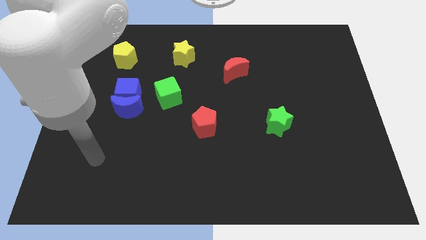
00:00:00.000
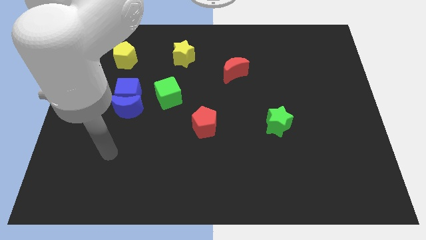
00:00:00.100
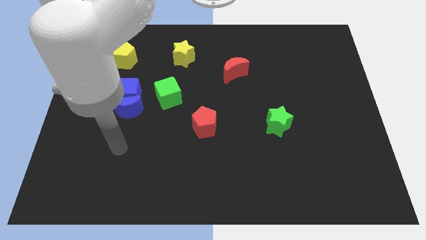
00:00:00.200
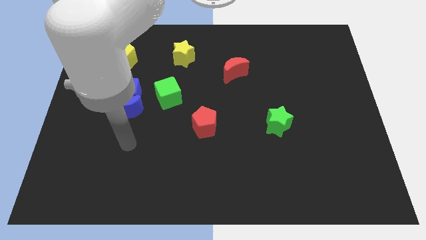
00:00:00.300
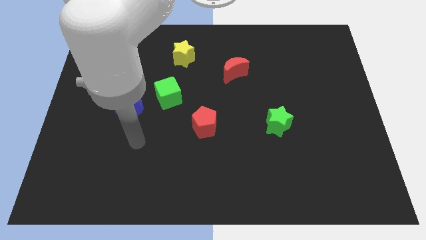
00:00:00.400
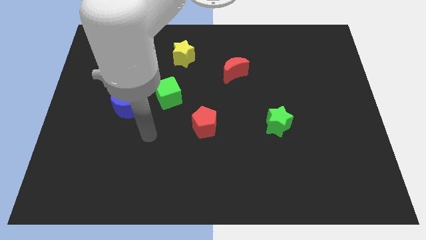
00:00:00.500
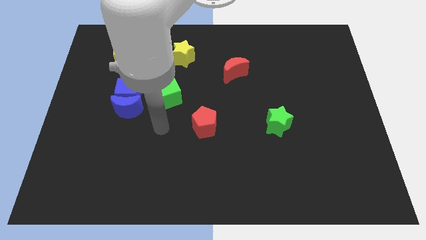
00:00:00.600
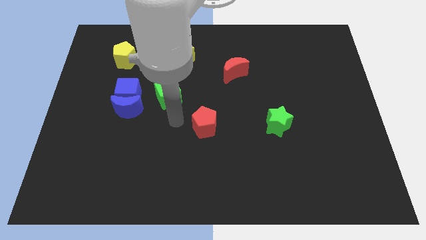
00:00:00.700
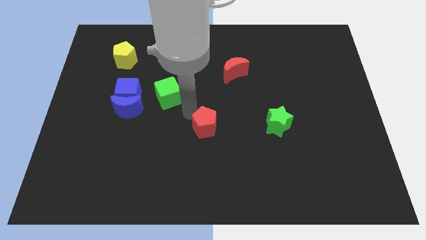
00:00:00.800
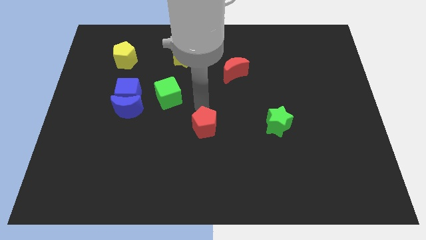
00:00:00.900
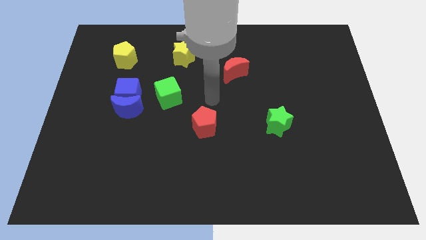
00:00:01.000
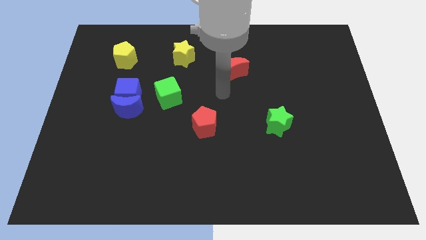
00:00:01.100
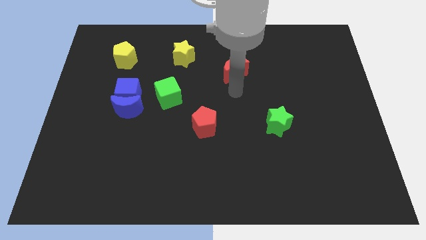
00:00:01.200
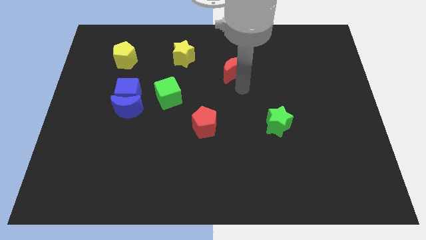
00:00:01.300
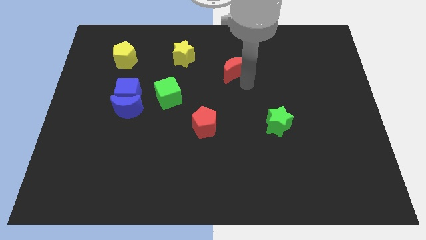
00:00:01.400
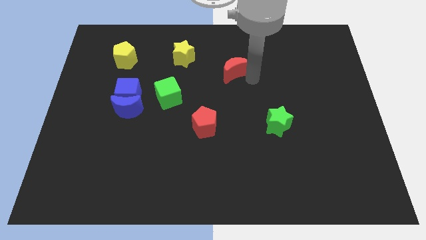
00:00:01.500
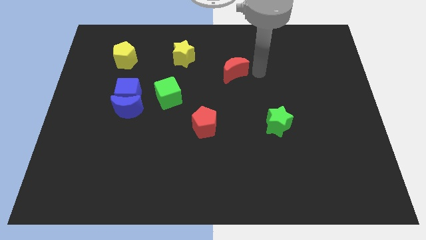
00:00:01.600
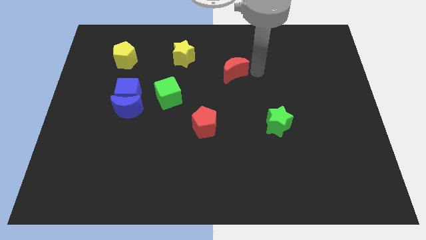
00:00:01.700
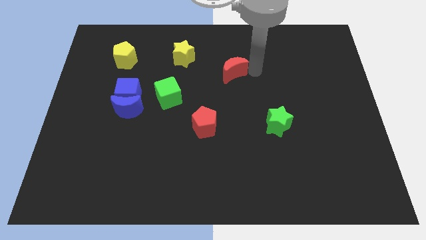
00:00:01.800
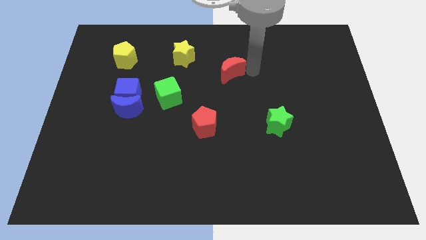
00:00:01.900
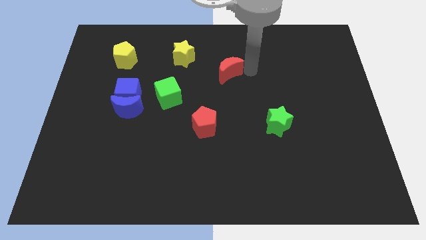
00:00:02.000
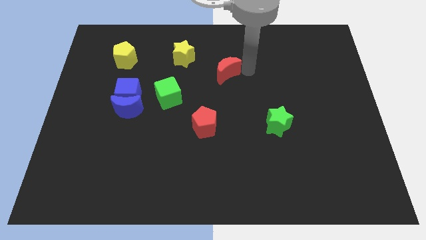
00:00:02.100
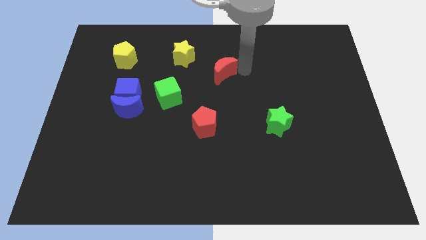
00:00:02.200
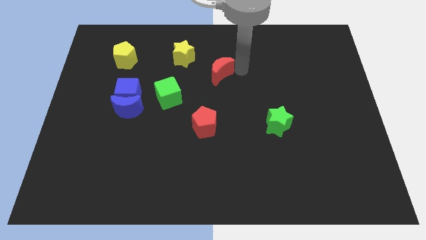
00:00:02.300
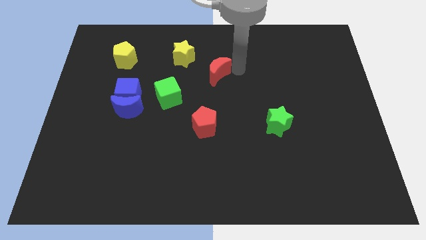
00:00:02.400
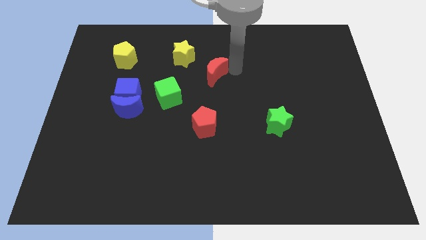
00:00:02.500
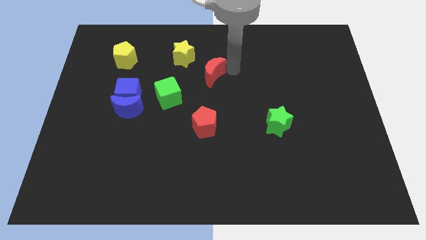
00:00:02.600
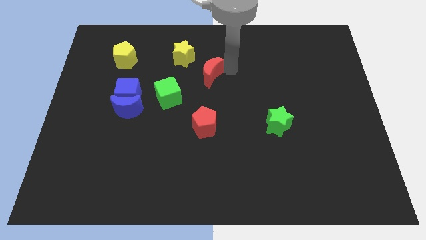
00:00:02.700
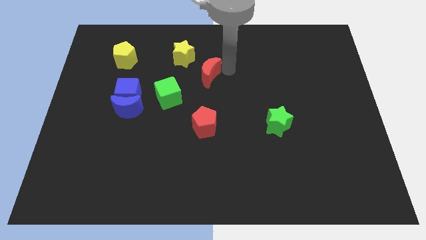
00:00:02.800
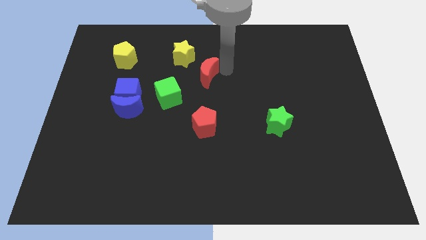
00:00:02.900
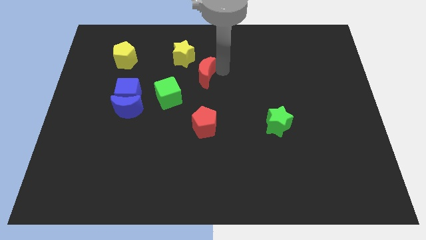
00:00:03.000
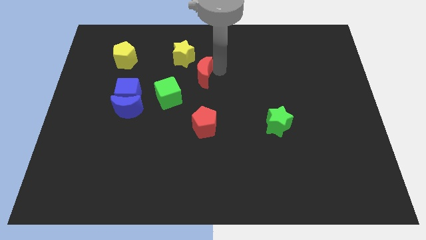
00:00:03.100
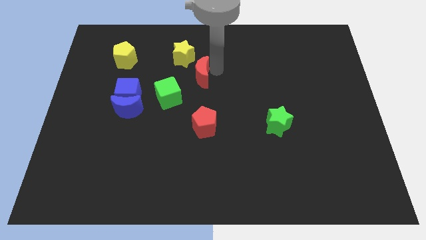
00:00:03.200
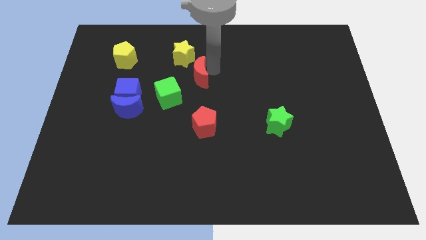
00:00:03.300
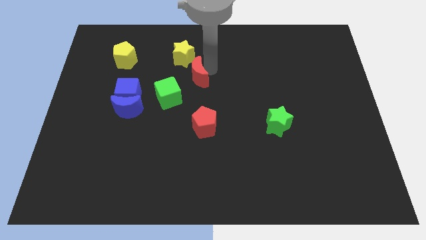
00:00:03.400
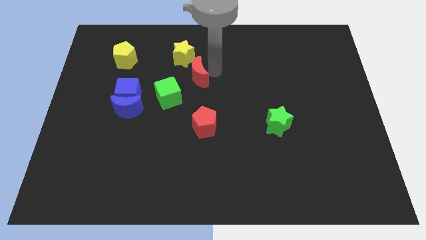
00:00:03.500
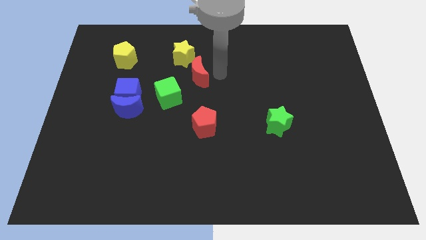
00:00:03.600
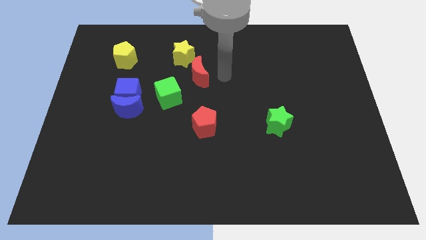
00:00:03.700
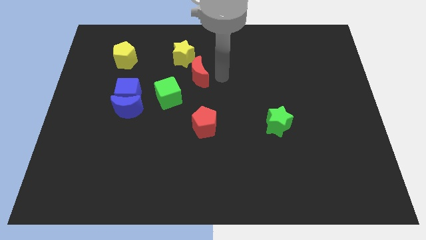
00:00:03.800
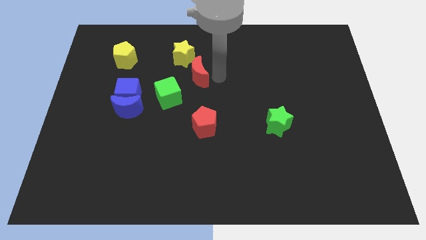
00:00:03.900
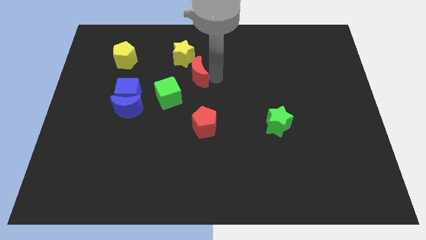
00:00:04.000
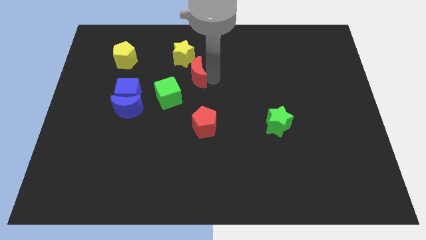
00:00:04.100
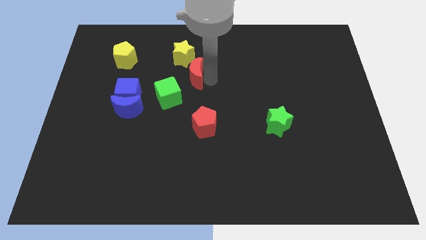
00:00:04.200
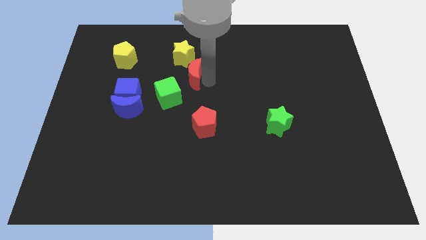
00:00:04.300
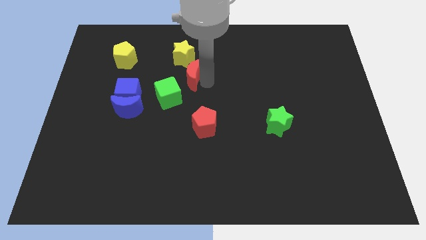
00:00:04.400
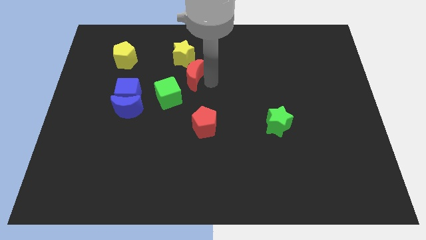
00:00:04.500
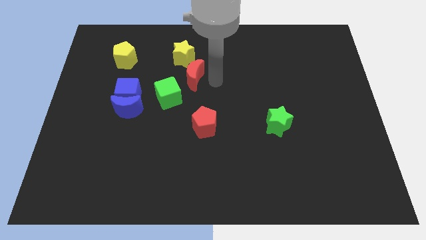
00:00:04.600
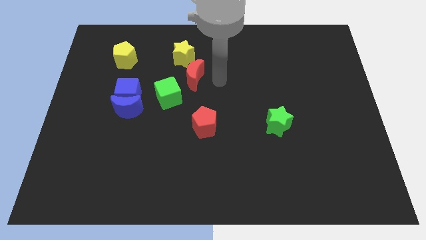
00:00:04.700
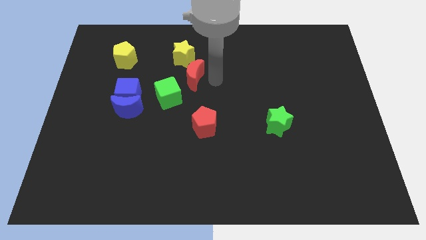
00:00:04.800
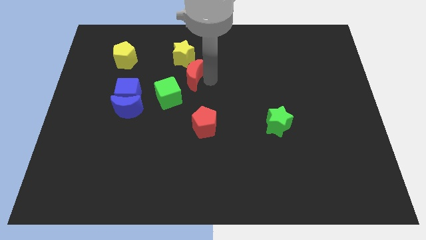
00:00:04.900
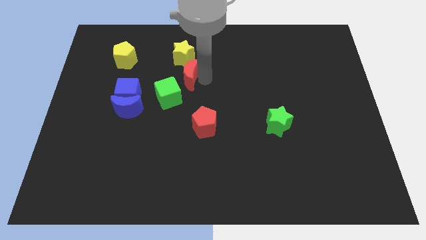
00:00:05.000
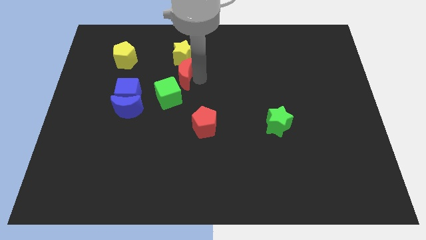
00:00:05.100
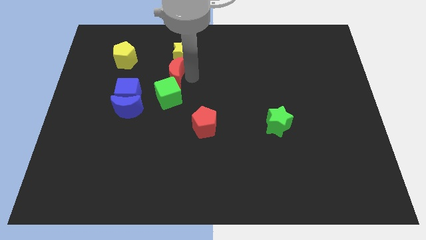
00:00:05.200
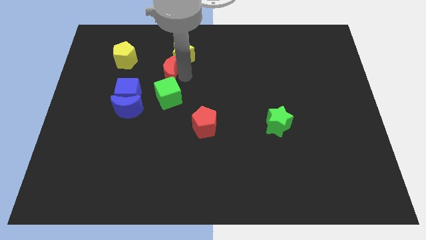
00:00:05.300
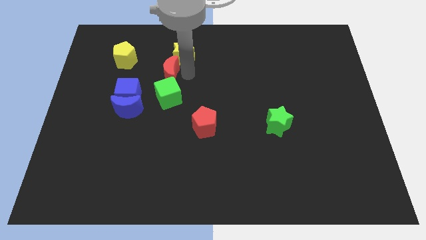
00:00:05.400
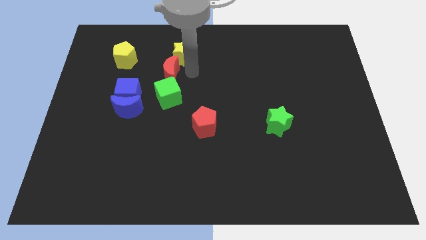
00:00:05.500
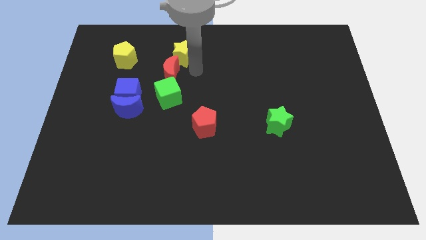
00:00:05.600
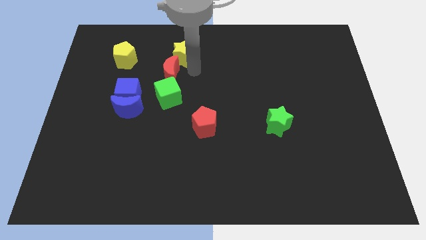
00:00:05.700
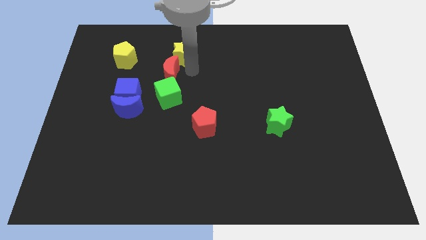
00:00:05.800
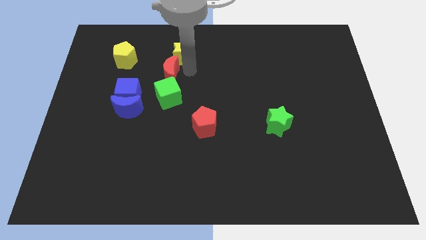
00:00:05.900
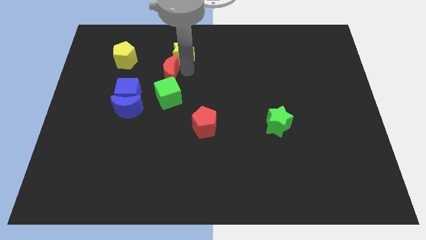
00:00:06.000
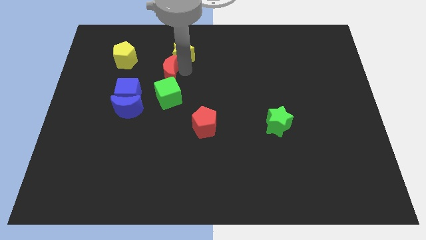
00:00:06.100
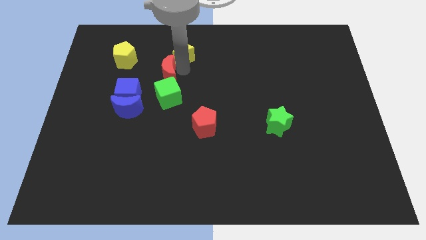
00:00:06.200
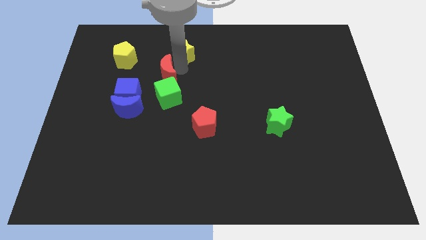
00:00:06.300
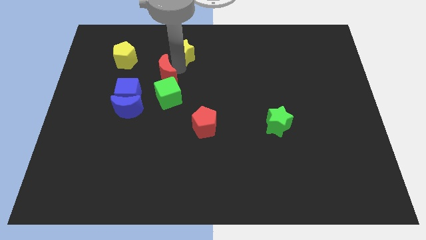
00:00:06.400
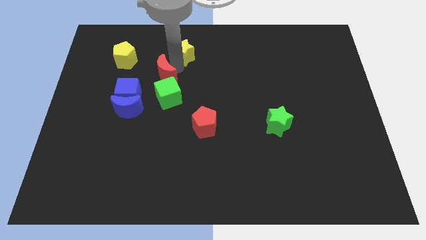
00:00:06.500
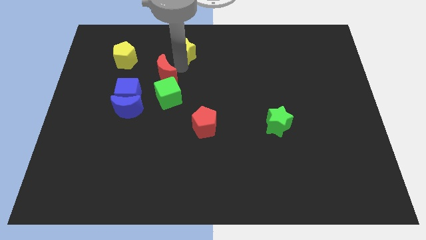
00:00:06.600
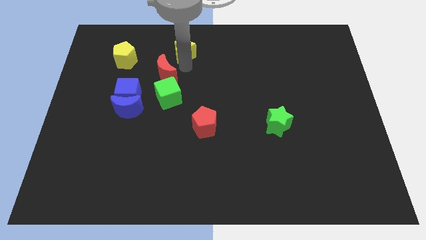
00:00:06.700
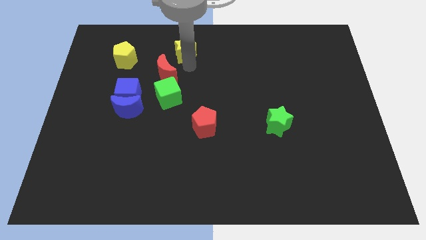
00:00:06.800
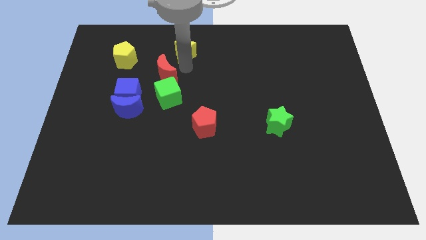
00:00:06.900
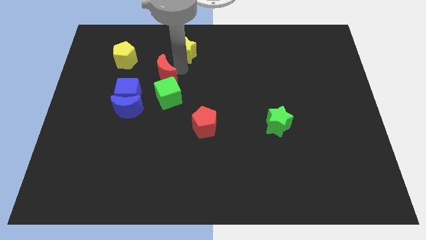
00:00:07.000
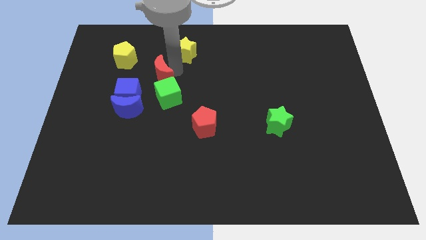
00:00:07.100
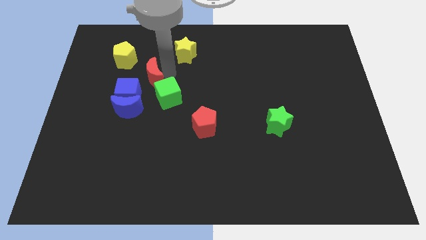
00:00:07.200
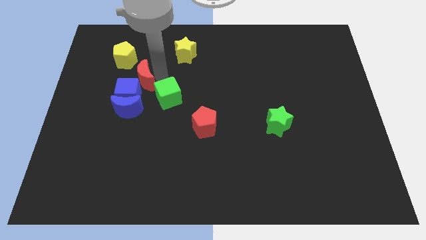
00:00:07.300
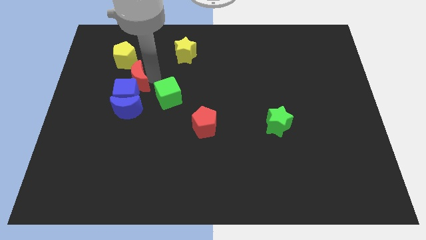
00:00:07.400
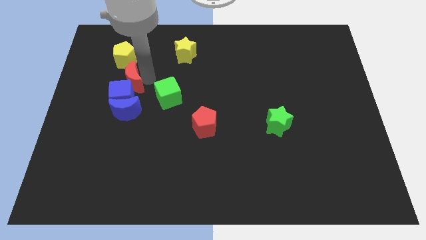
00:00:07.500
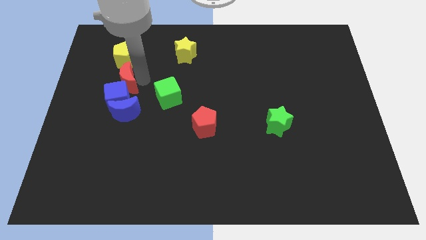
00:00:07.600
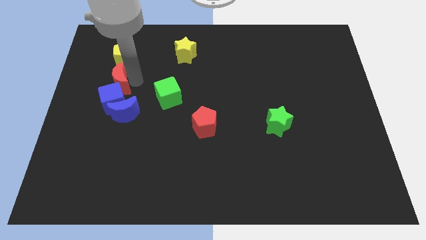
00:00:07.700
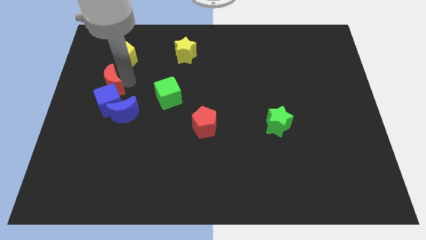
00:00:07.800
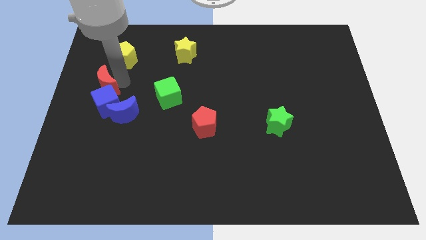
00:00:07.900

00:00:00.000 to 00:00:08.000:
move the red moon to the left side
